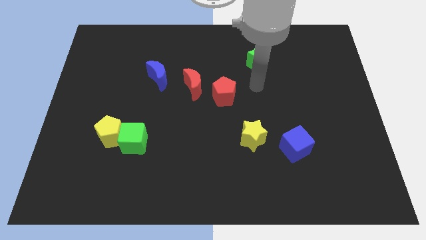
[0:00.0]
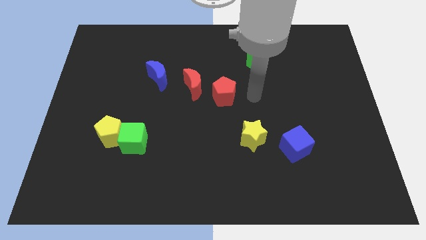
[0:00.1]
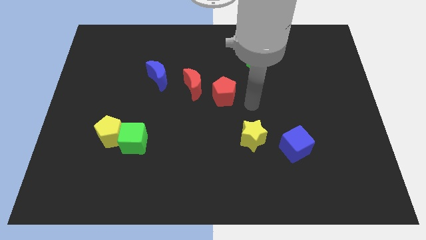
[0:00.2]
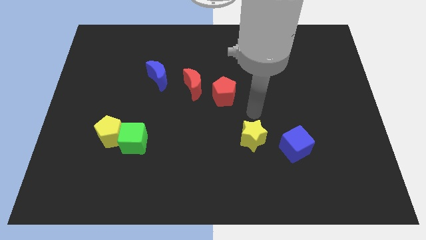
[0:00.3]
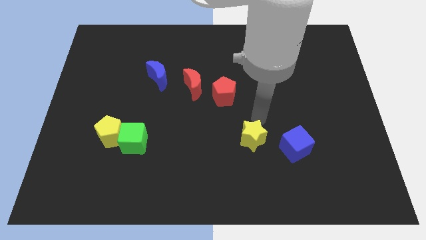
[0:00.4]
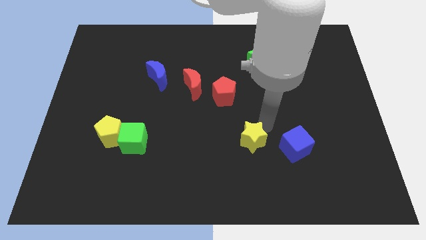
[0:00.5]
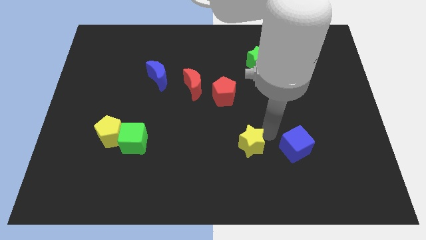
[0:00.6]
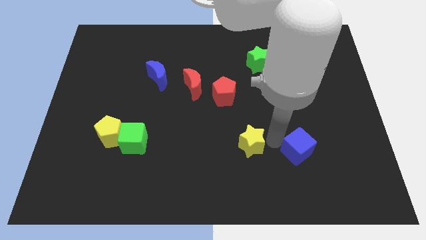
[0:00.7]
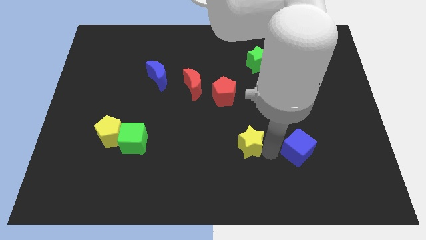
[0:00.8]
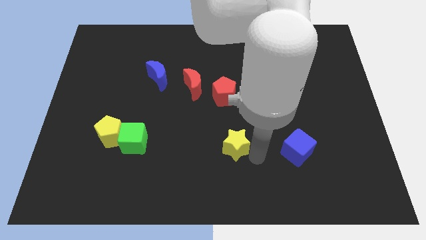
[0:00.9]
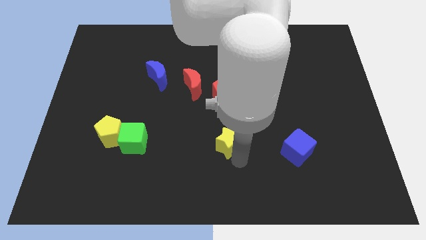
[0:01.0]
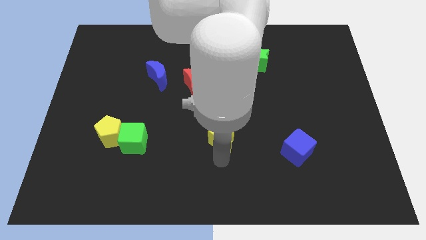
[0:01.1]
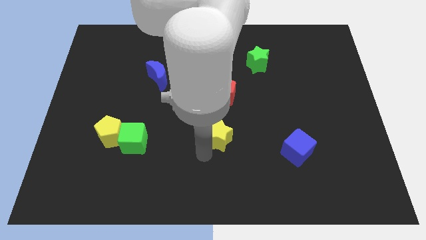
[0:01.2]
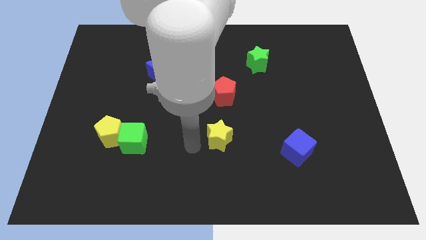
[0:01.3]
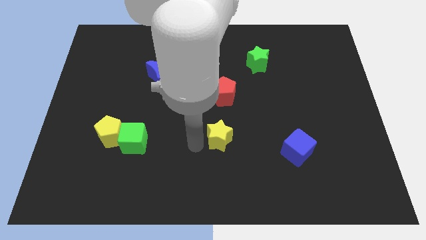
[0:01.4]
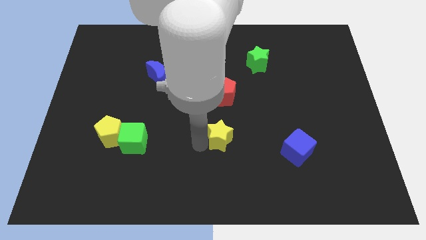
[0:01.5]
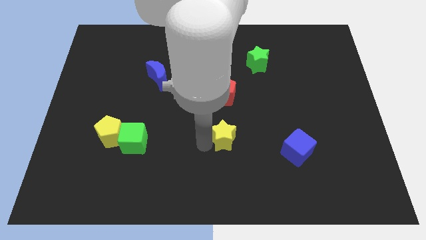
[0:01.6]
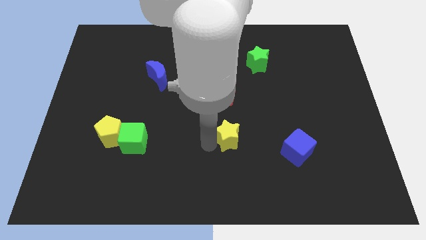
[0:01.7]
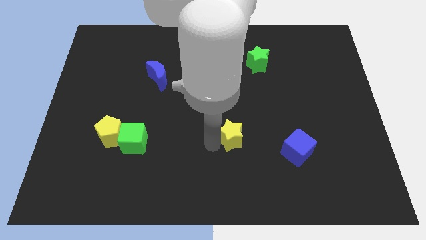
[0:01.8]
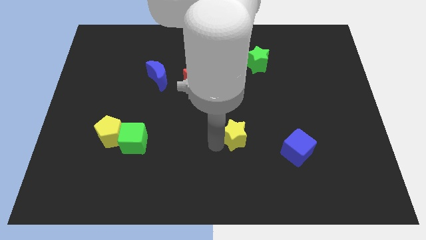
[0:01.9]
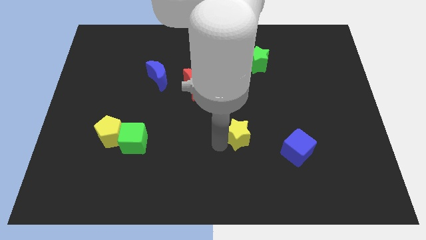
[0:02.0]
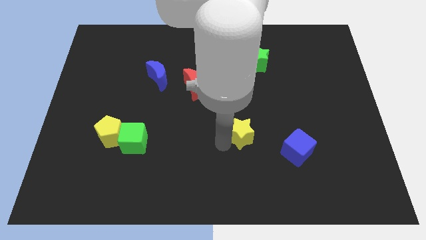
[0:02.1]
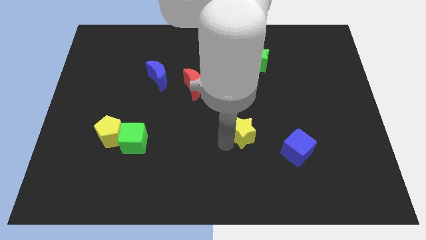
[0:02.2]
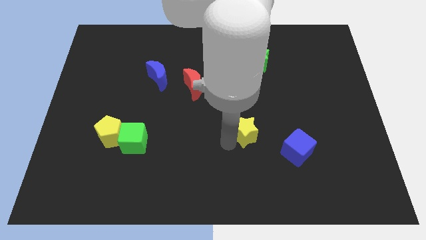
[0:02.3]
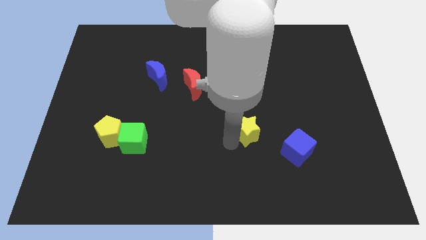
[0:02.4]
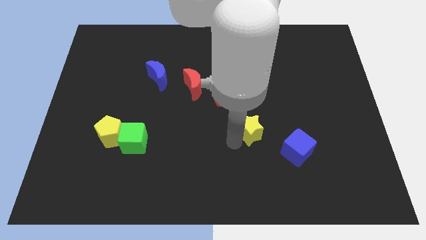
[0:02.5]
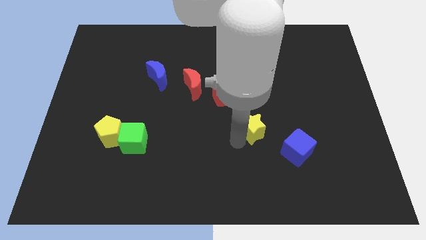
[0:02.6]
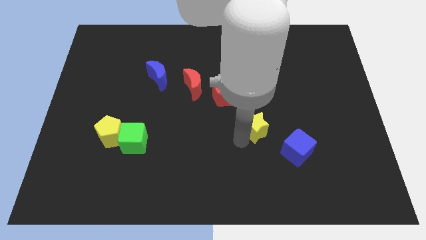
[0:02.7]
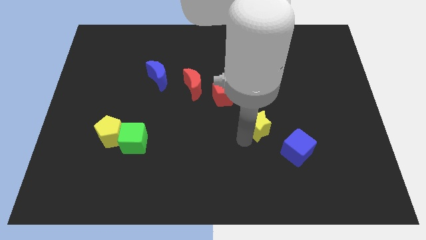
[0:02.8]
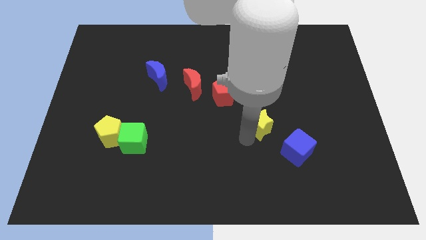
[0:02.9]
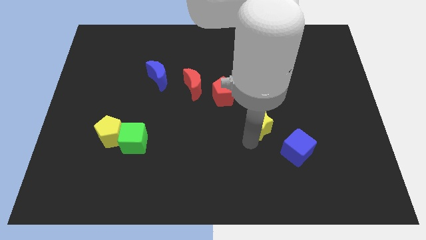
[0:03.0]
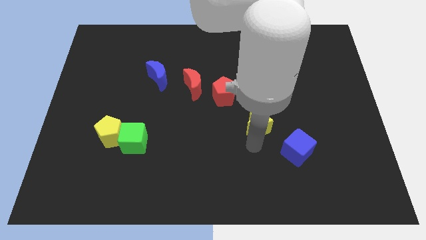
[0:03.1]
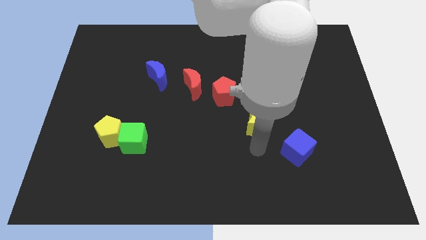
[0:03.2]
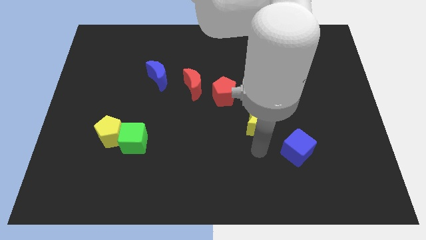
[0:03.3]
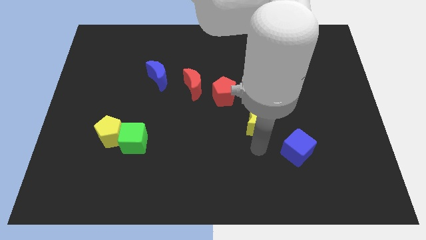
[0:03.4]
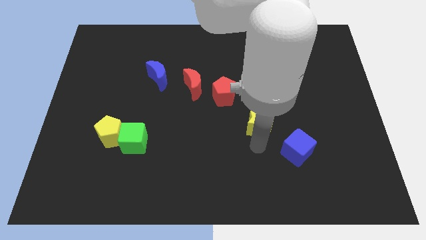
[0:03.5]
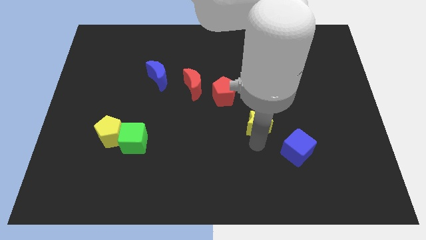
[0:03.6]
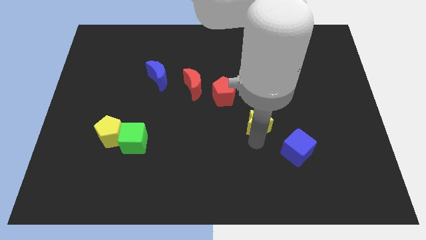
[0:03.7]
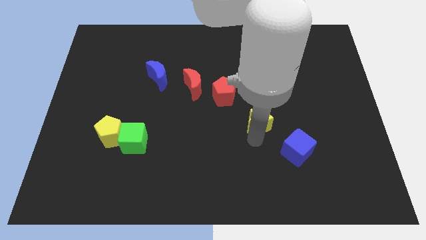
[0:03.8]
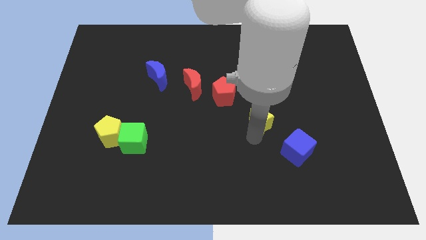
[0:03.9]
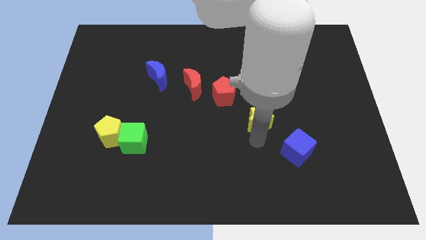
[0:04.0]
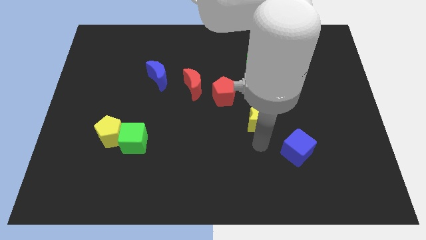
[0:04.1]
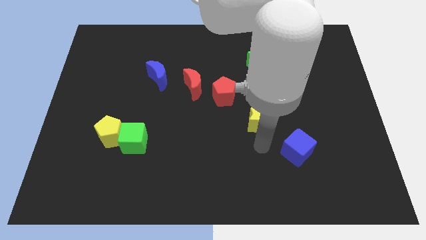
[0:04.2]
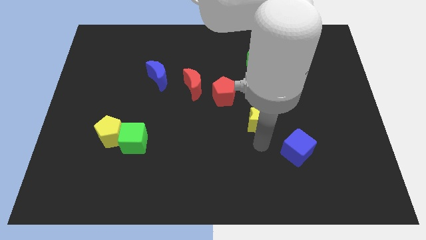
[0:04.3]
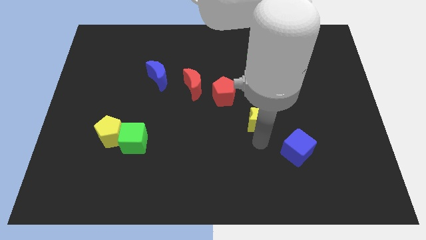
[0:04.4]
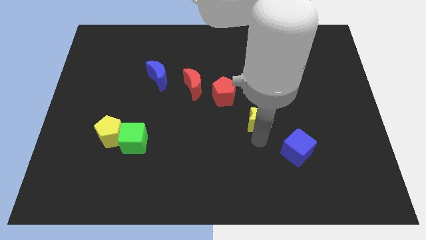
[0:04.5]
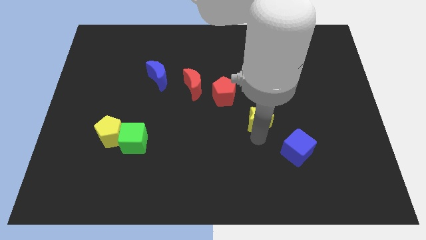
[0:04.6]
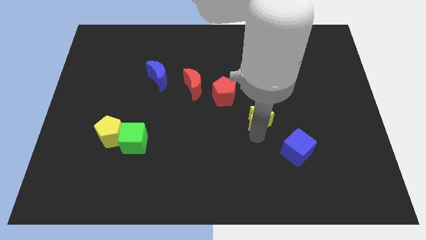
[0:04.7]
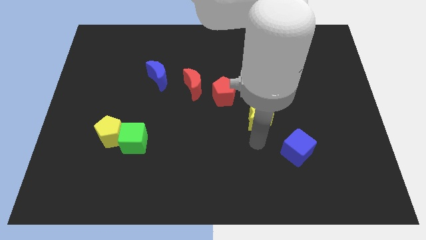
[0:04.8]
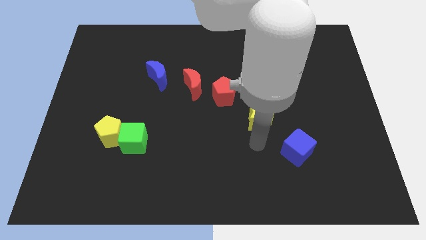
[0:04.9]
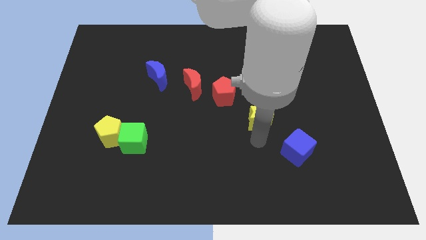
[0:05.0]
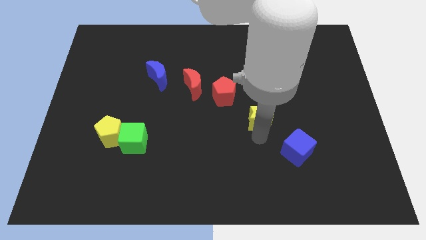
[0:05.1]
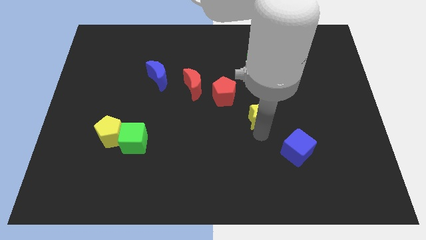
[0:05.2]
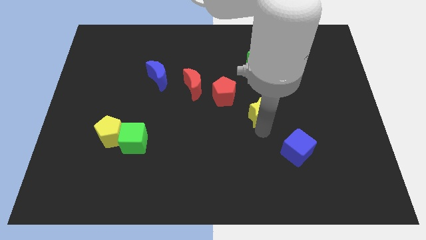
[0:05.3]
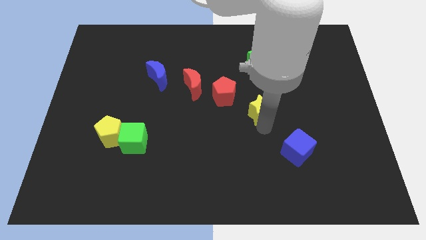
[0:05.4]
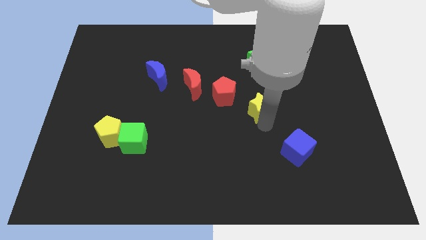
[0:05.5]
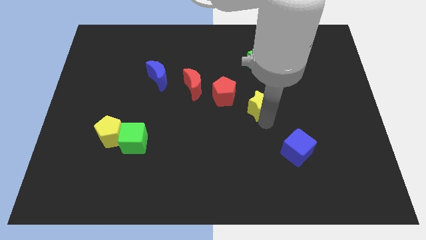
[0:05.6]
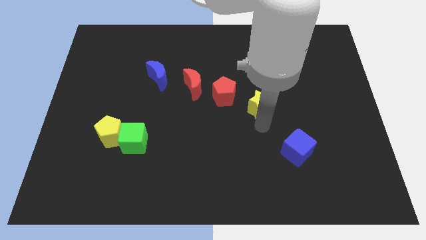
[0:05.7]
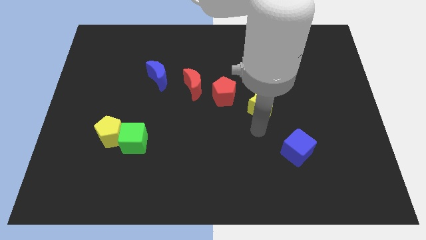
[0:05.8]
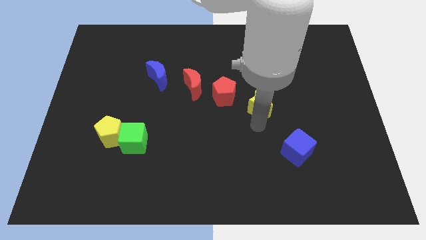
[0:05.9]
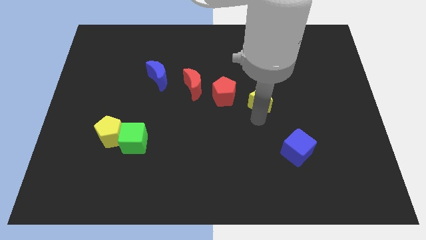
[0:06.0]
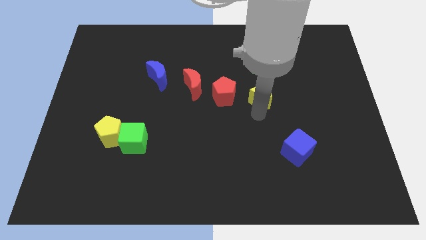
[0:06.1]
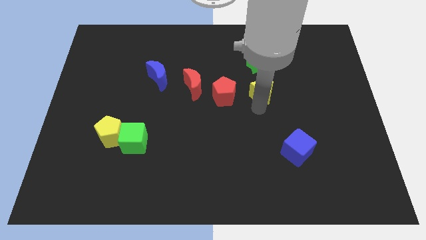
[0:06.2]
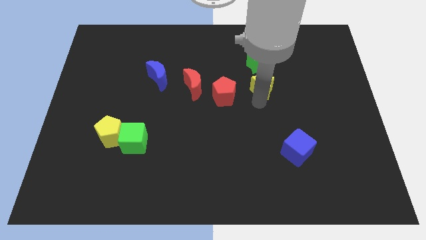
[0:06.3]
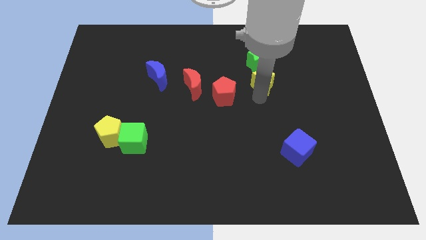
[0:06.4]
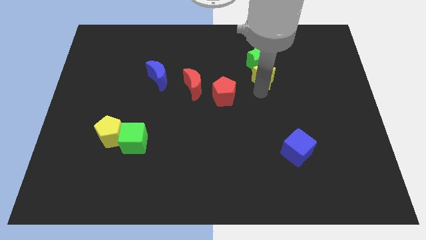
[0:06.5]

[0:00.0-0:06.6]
move the yellow star close to the green star
